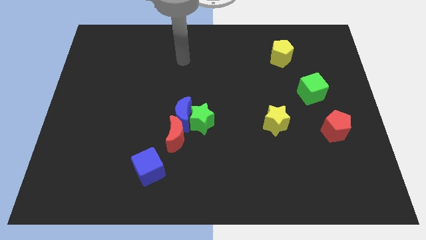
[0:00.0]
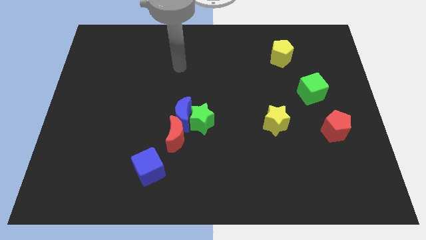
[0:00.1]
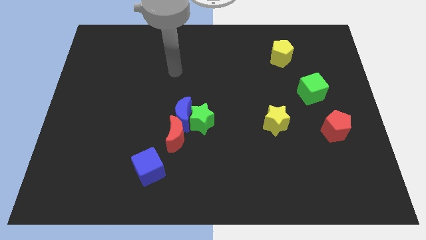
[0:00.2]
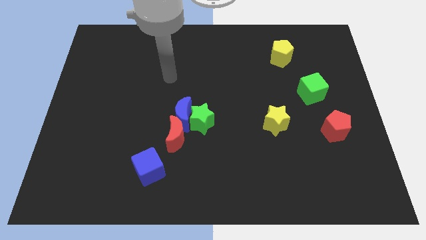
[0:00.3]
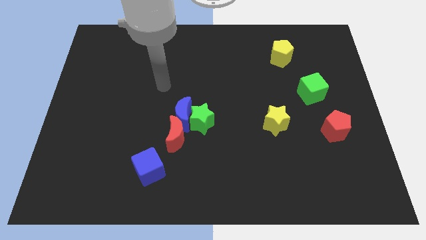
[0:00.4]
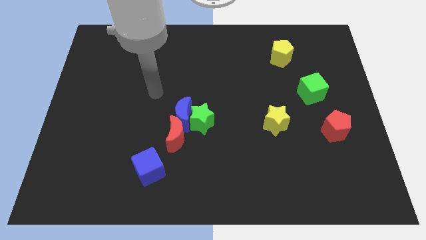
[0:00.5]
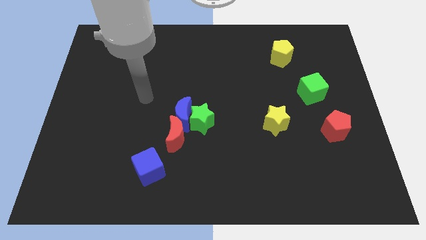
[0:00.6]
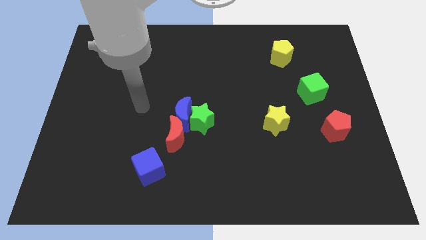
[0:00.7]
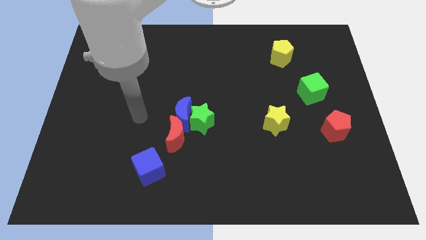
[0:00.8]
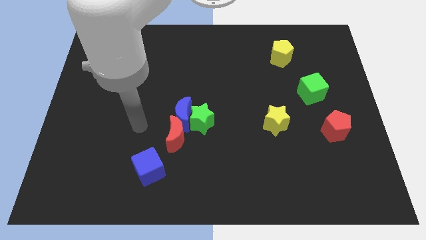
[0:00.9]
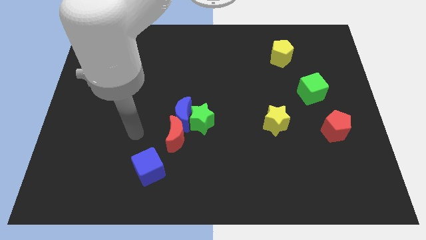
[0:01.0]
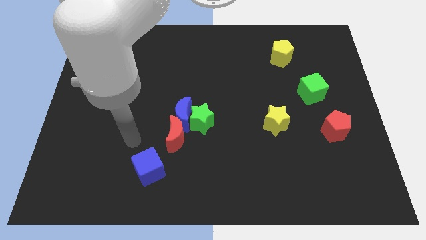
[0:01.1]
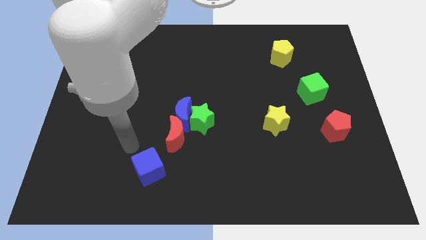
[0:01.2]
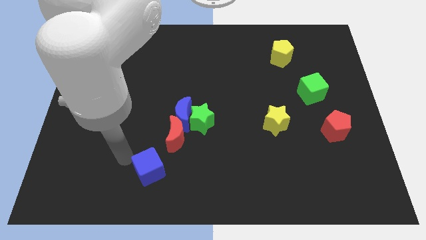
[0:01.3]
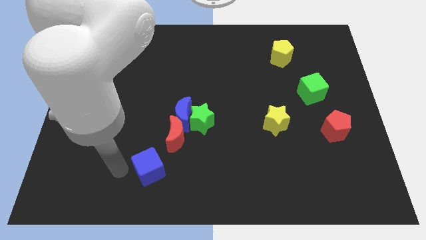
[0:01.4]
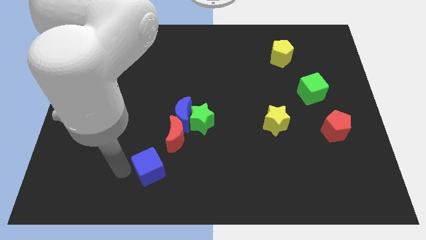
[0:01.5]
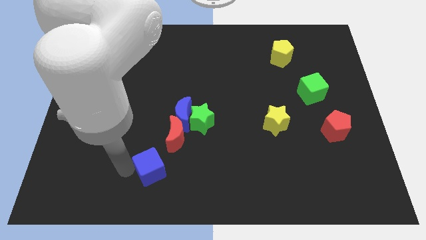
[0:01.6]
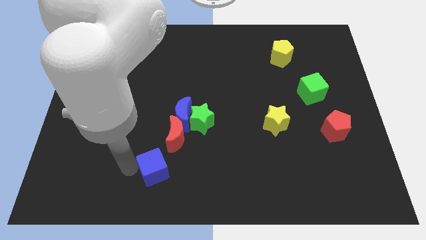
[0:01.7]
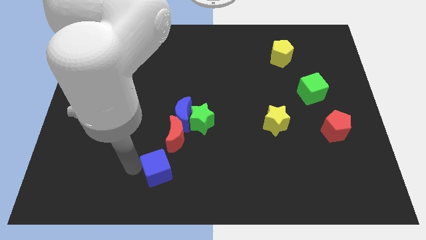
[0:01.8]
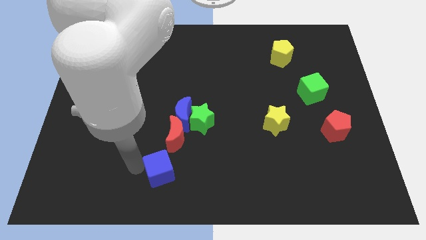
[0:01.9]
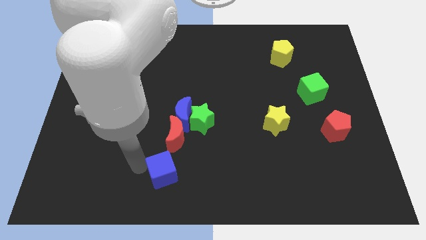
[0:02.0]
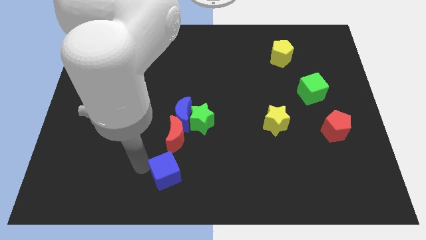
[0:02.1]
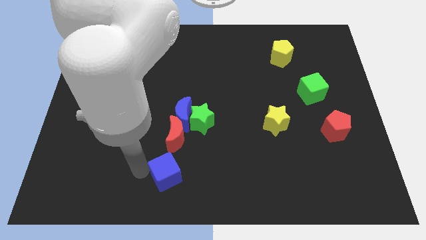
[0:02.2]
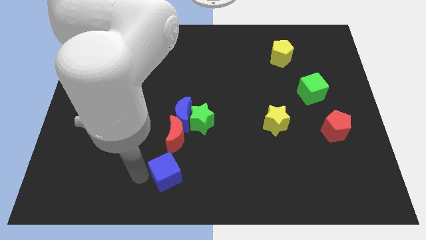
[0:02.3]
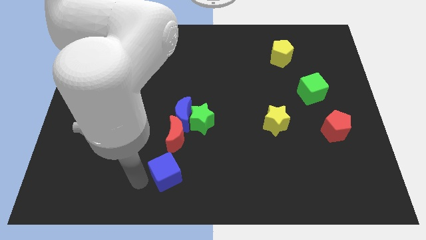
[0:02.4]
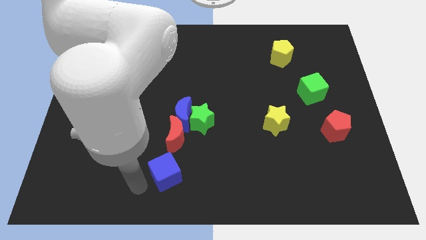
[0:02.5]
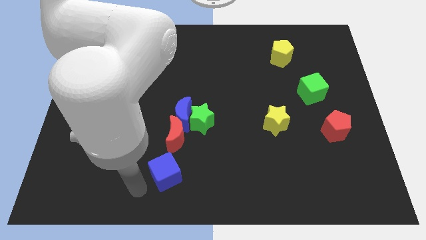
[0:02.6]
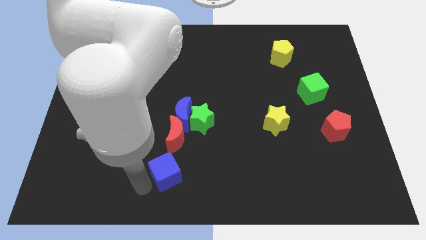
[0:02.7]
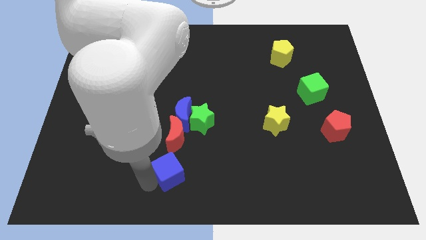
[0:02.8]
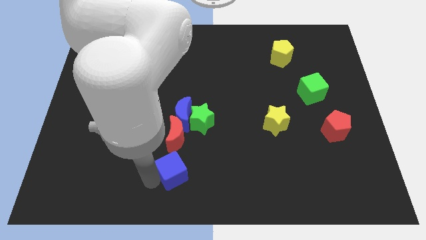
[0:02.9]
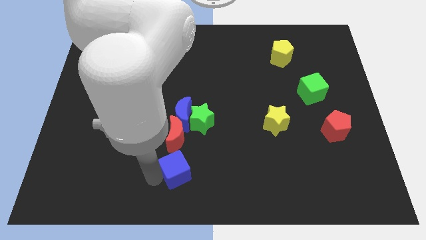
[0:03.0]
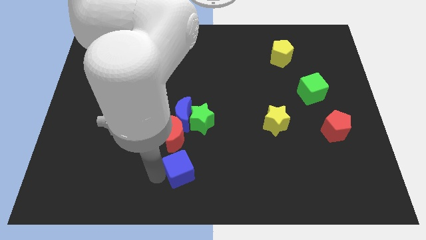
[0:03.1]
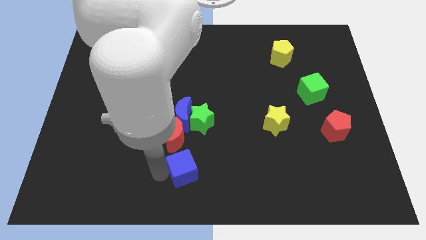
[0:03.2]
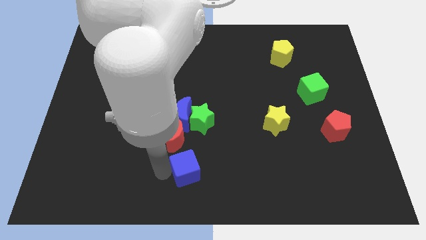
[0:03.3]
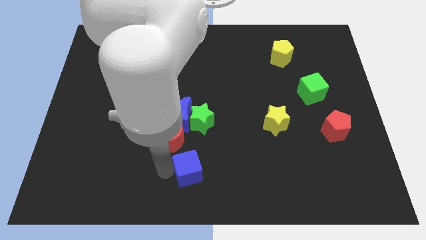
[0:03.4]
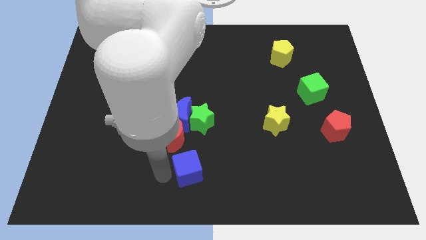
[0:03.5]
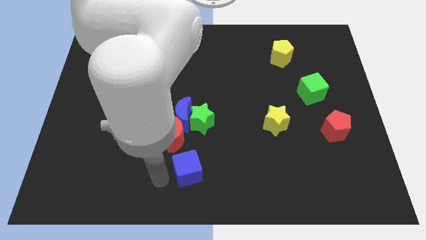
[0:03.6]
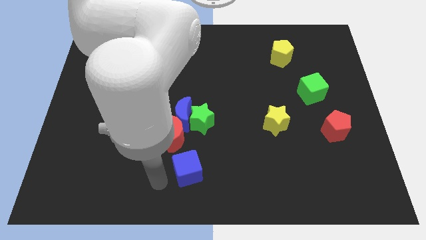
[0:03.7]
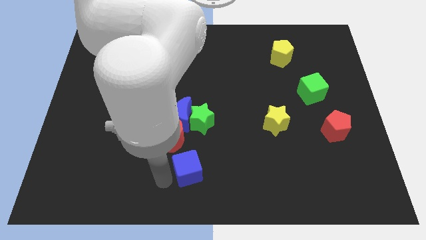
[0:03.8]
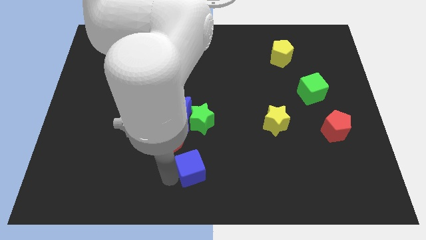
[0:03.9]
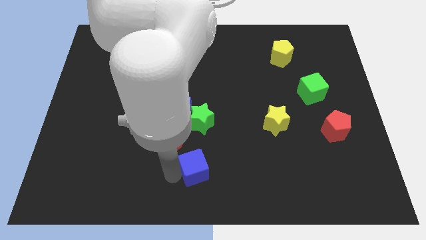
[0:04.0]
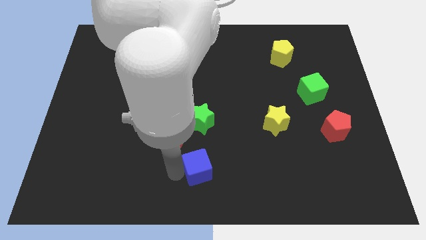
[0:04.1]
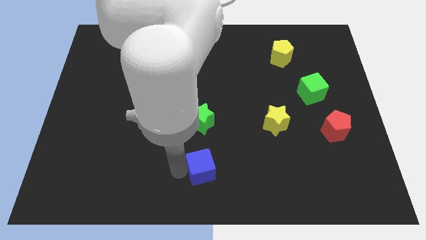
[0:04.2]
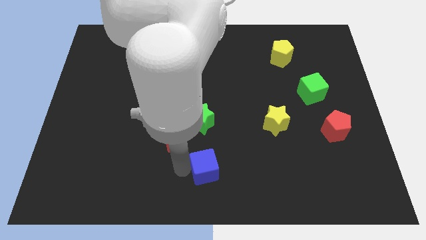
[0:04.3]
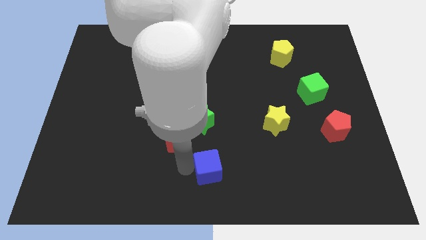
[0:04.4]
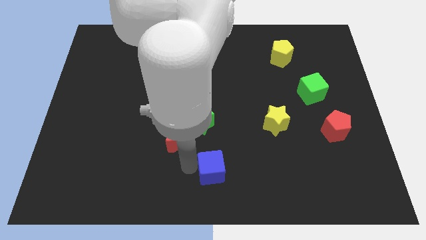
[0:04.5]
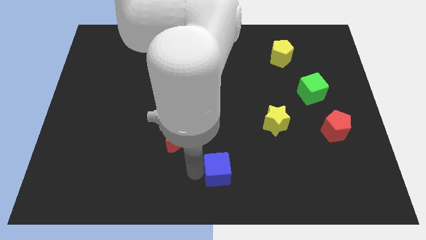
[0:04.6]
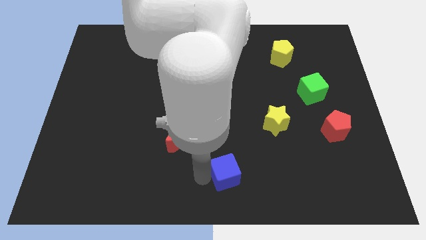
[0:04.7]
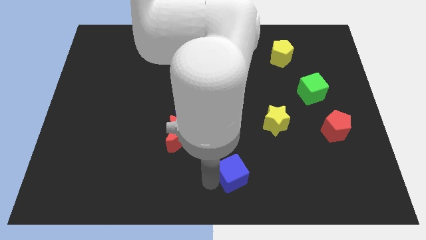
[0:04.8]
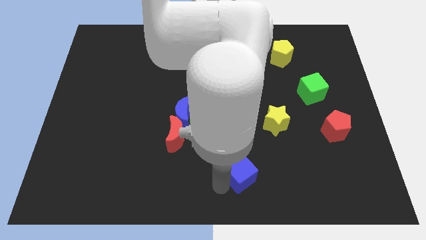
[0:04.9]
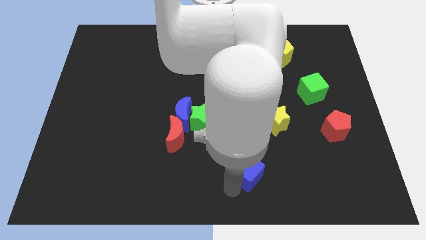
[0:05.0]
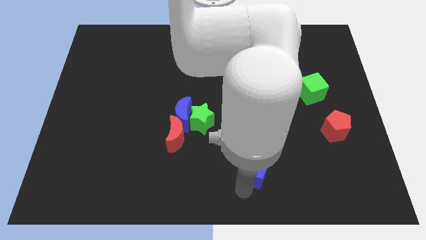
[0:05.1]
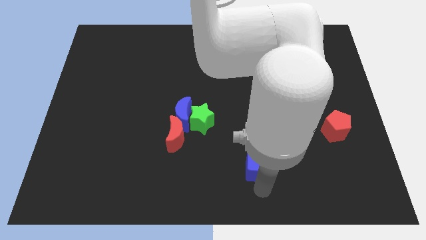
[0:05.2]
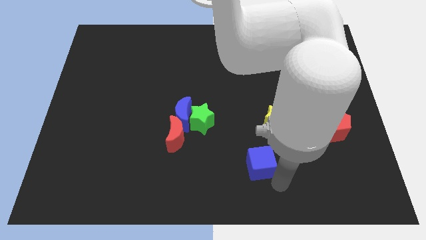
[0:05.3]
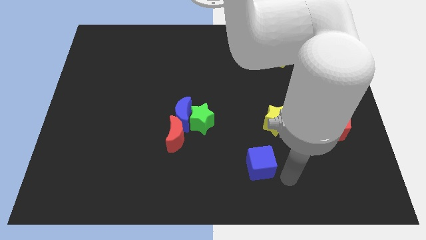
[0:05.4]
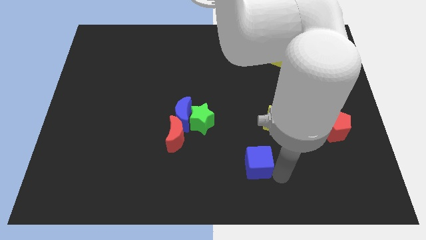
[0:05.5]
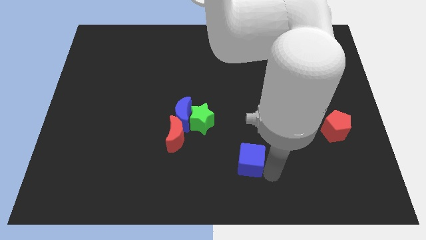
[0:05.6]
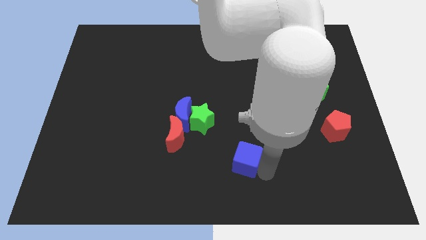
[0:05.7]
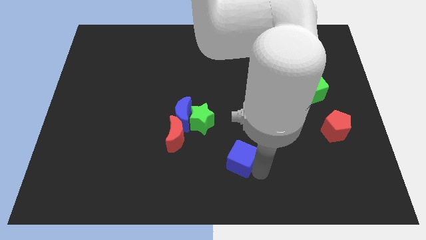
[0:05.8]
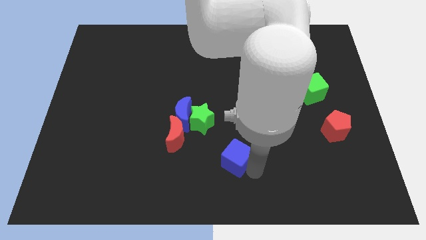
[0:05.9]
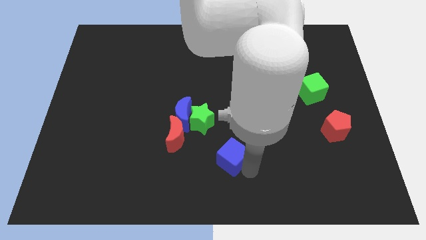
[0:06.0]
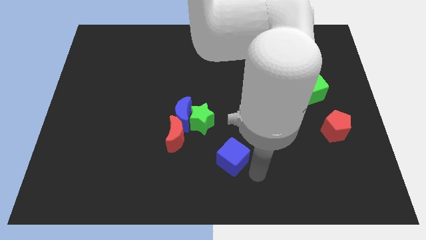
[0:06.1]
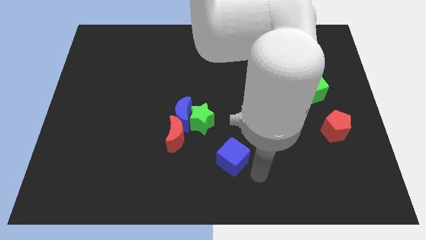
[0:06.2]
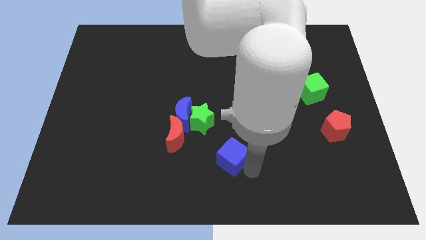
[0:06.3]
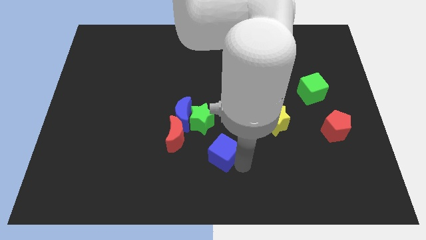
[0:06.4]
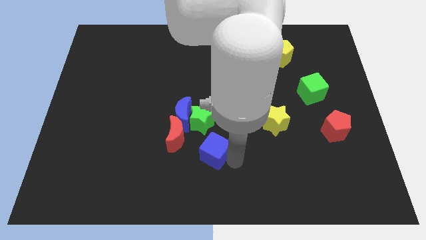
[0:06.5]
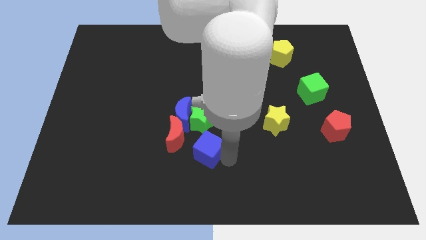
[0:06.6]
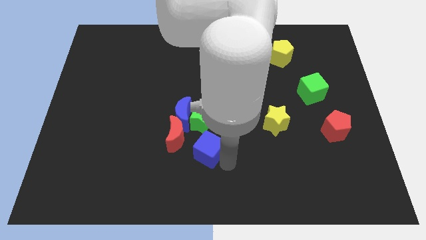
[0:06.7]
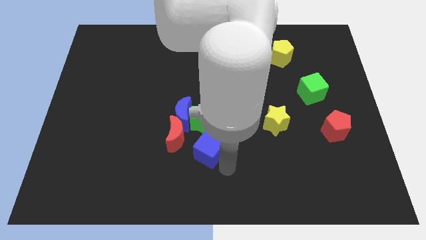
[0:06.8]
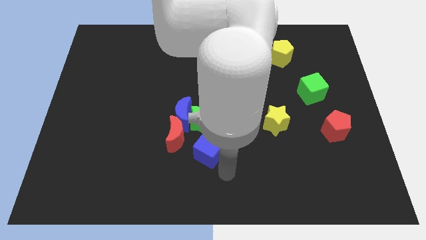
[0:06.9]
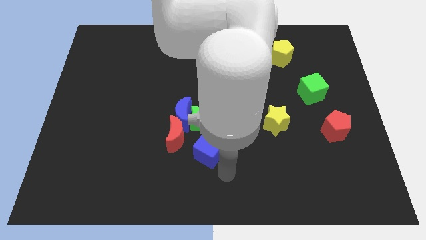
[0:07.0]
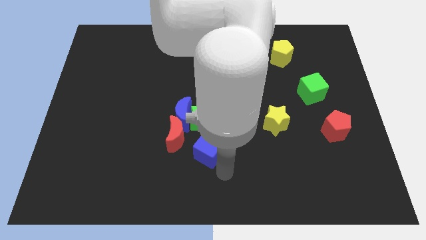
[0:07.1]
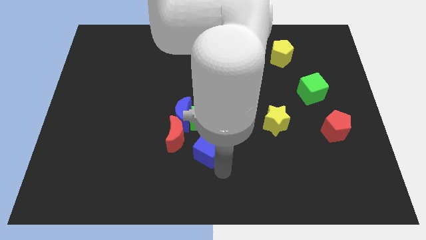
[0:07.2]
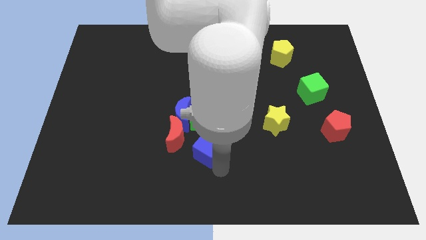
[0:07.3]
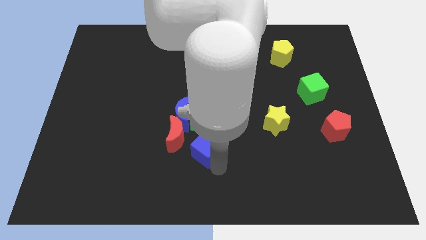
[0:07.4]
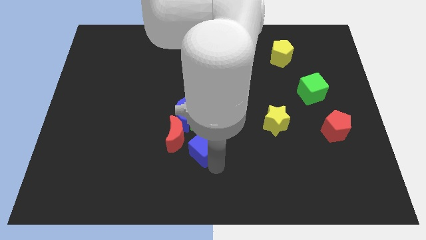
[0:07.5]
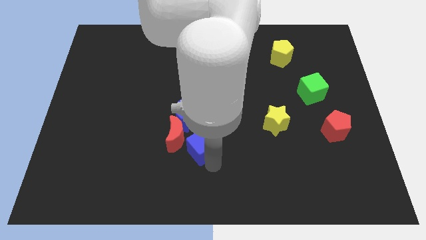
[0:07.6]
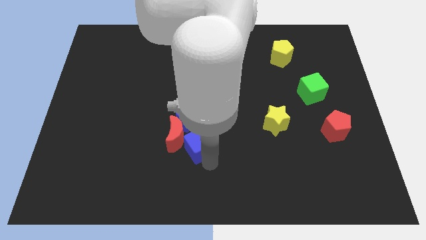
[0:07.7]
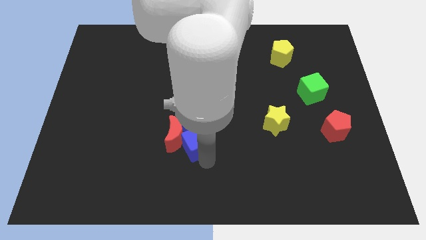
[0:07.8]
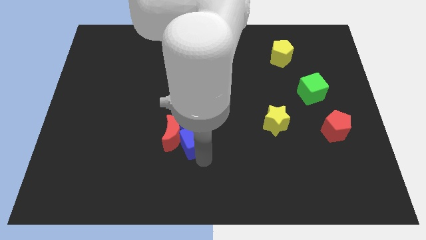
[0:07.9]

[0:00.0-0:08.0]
push the blue cube towards the green star

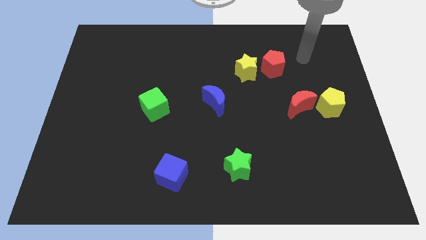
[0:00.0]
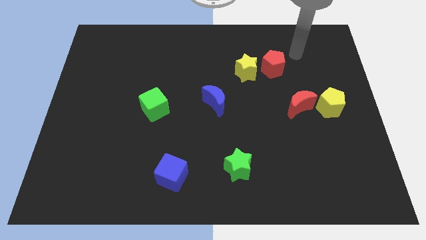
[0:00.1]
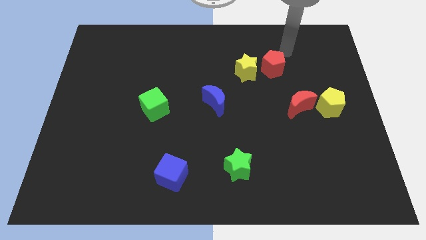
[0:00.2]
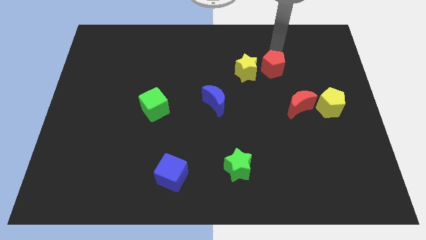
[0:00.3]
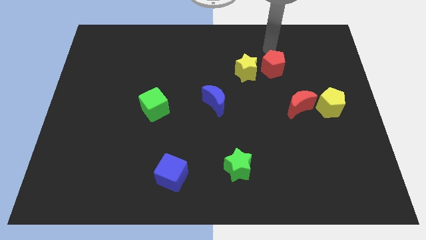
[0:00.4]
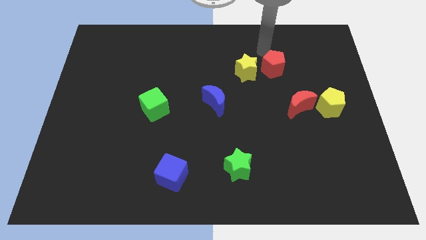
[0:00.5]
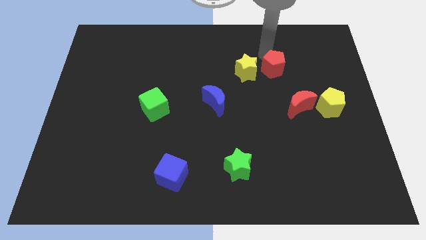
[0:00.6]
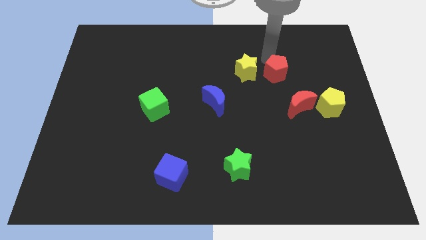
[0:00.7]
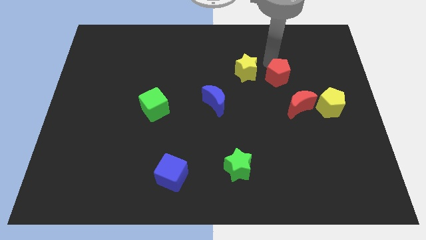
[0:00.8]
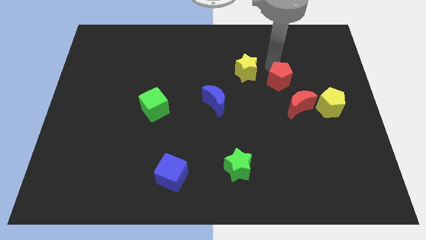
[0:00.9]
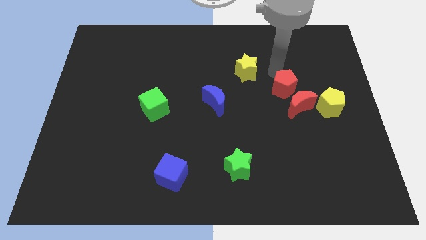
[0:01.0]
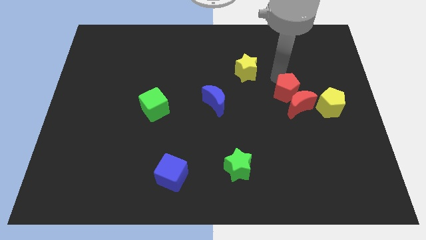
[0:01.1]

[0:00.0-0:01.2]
push the red pentagon close to the red moon
